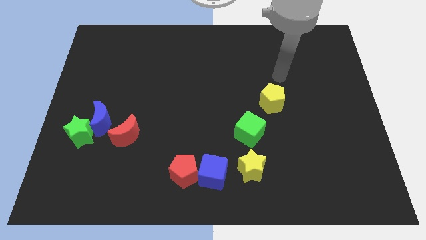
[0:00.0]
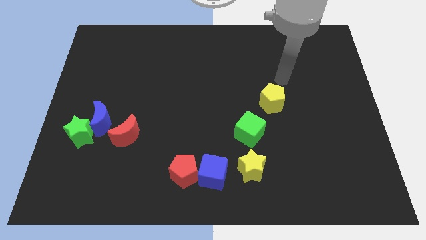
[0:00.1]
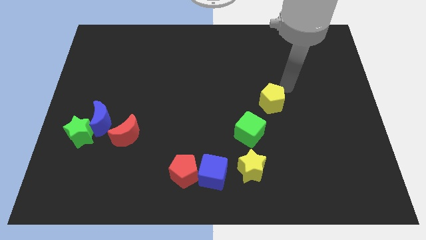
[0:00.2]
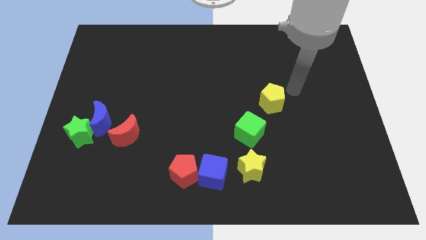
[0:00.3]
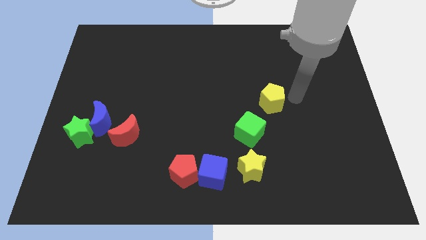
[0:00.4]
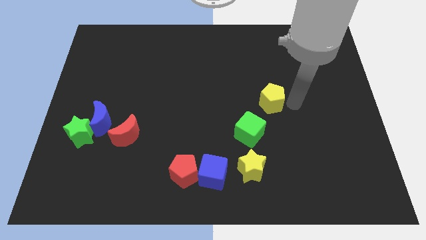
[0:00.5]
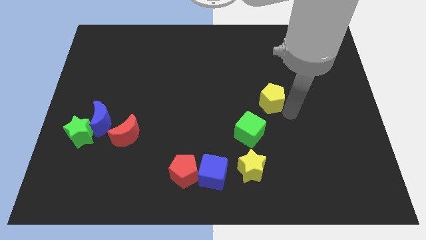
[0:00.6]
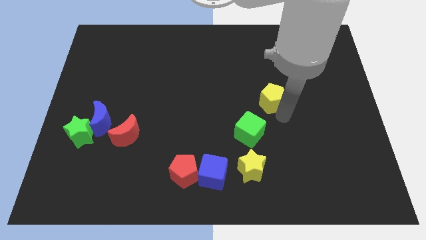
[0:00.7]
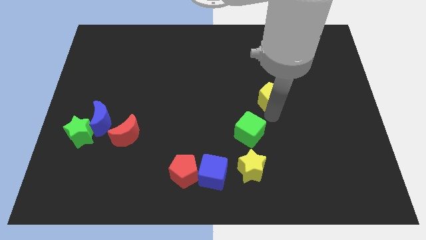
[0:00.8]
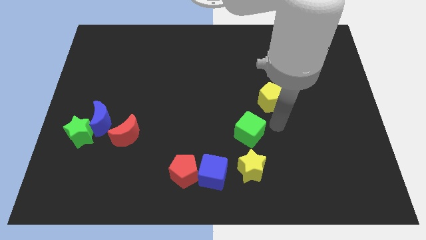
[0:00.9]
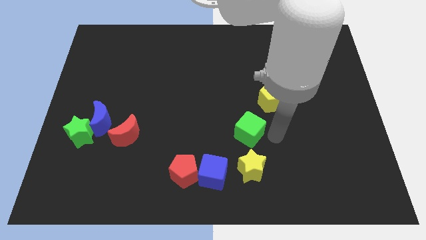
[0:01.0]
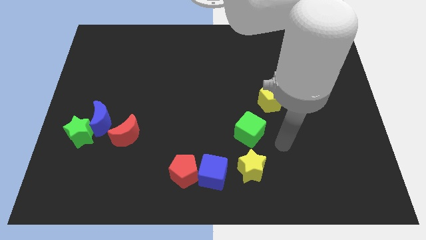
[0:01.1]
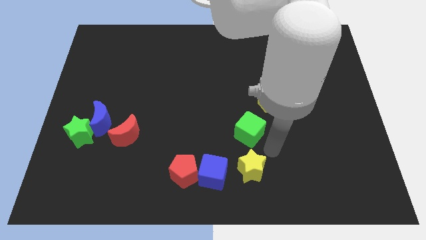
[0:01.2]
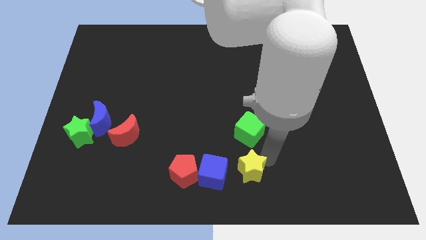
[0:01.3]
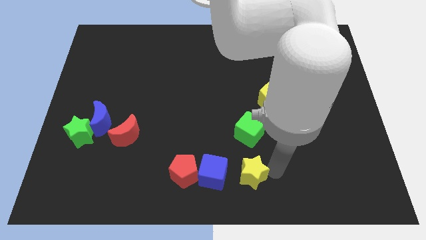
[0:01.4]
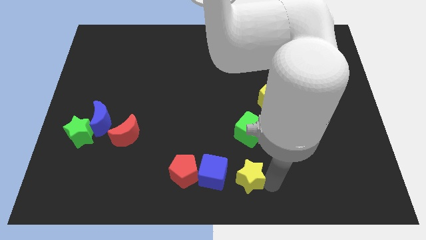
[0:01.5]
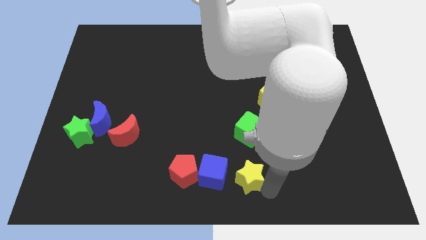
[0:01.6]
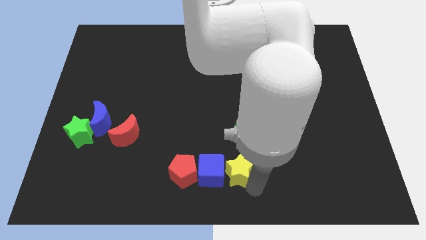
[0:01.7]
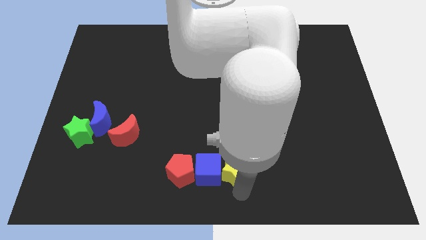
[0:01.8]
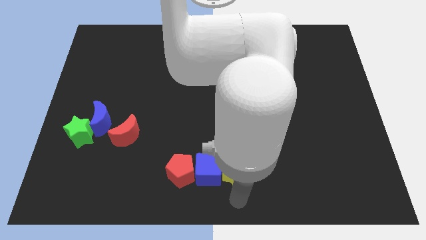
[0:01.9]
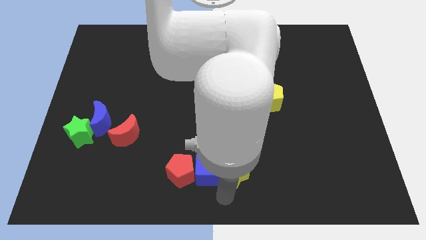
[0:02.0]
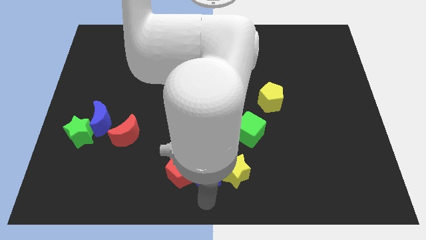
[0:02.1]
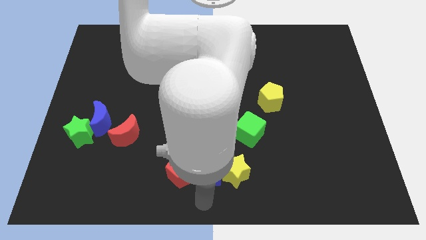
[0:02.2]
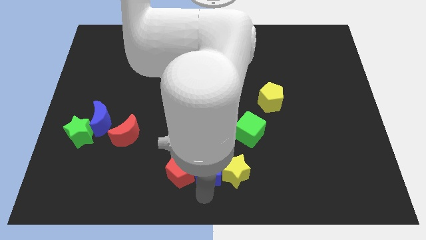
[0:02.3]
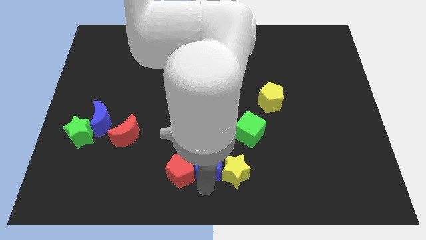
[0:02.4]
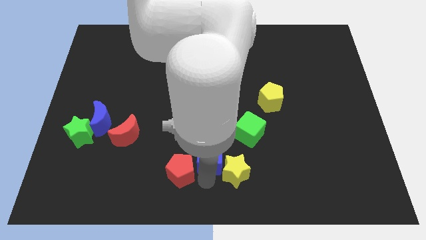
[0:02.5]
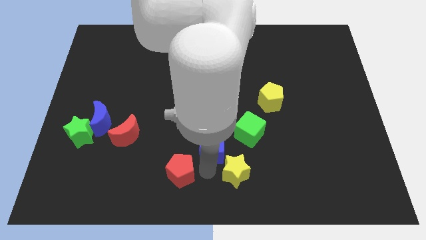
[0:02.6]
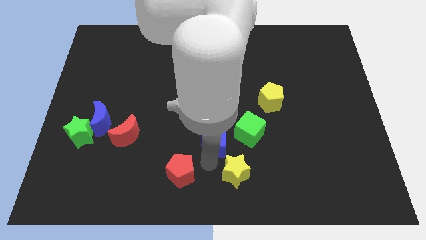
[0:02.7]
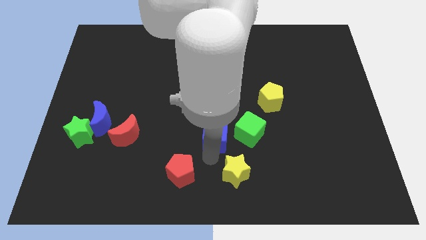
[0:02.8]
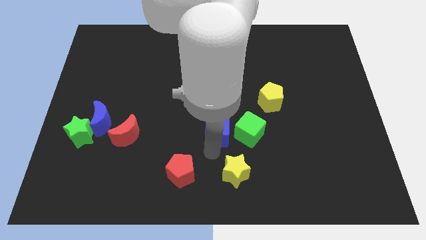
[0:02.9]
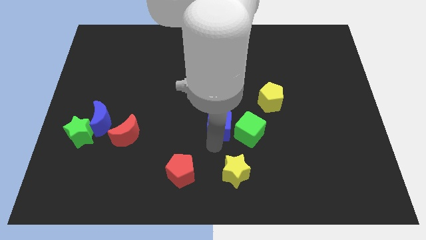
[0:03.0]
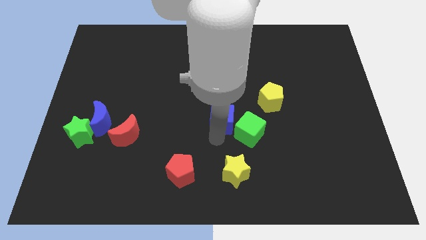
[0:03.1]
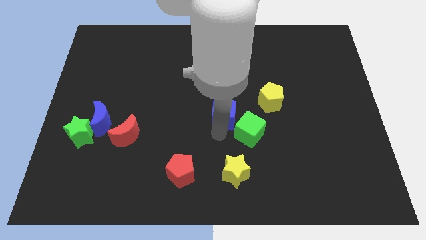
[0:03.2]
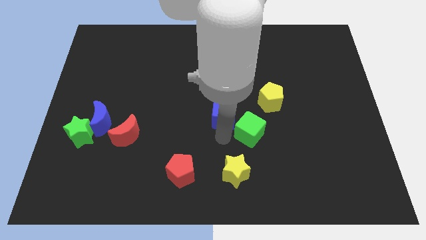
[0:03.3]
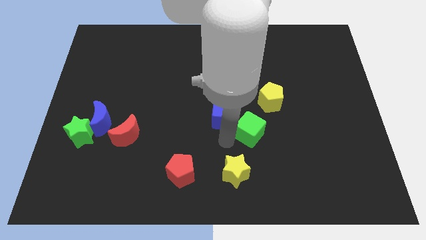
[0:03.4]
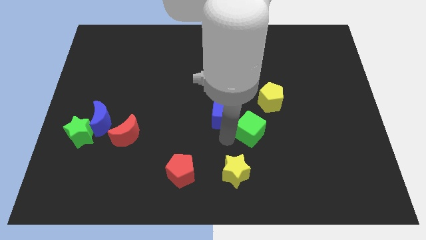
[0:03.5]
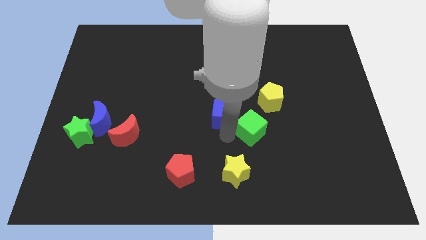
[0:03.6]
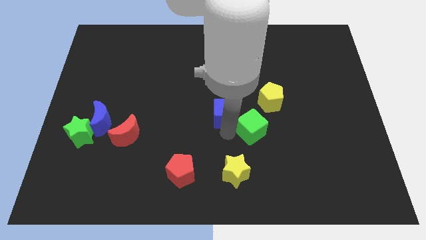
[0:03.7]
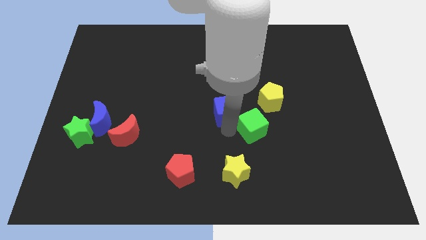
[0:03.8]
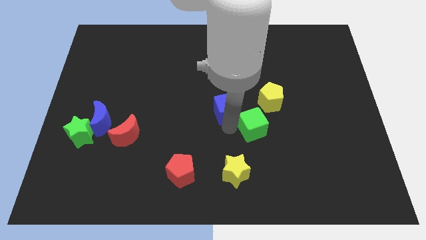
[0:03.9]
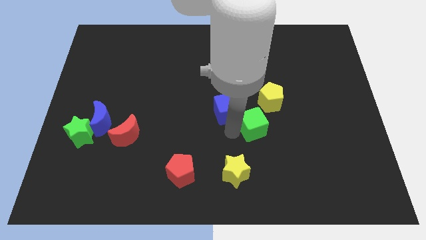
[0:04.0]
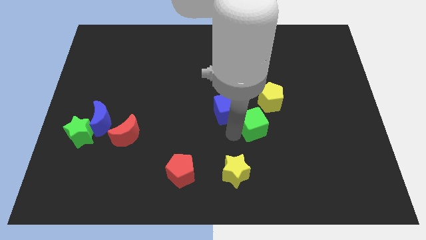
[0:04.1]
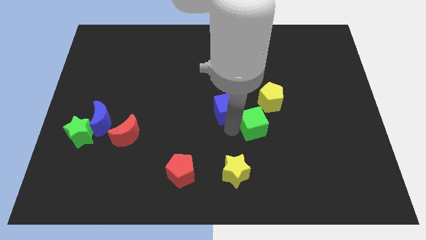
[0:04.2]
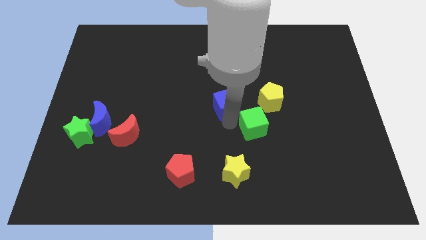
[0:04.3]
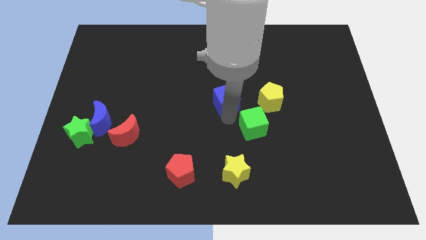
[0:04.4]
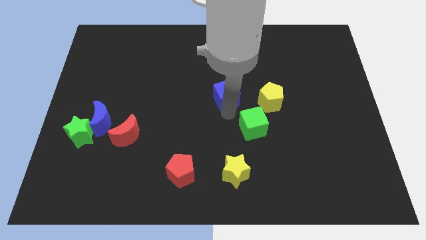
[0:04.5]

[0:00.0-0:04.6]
move the blue cube upwards

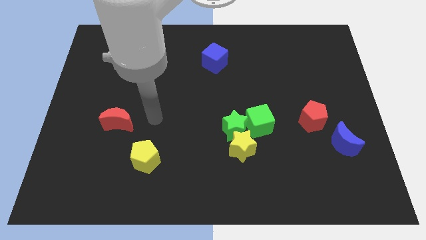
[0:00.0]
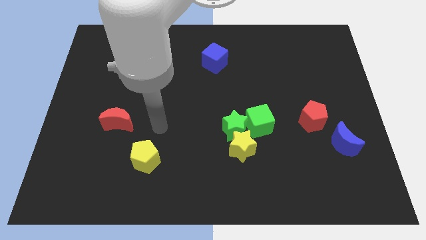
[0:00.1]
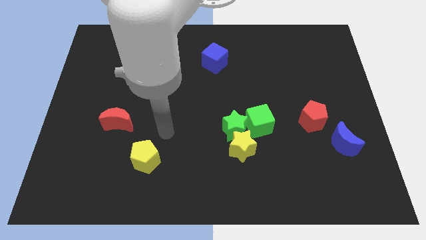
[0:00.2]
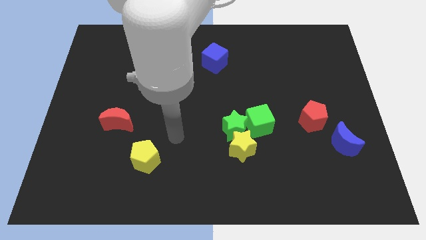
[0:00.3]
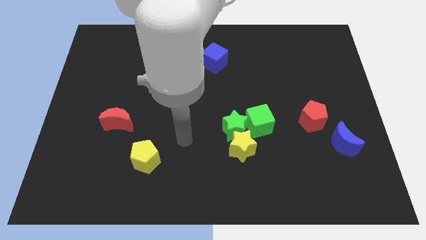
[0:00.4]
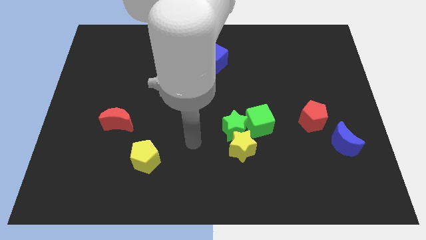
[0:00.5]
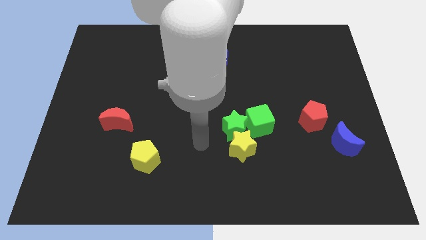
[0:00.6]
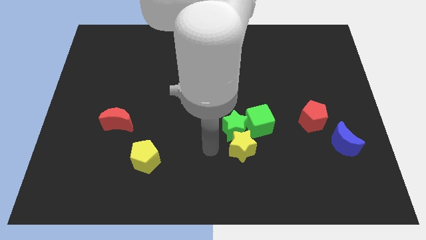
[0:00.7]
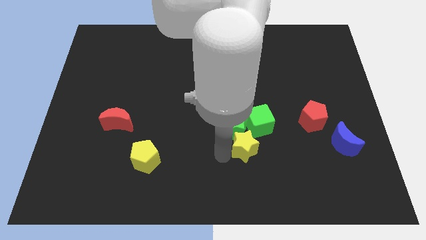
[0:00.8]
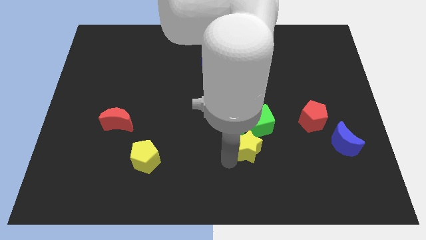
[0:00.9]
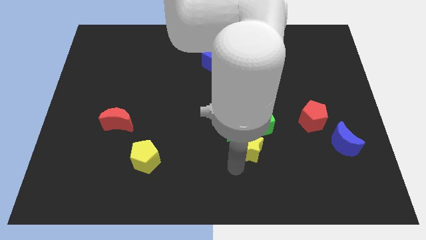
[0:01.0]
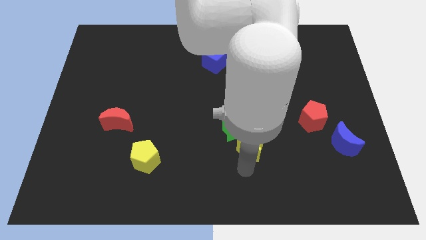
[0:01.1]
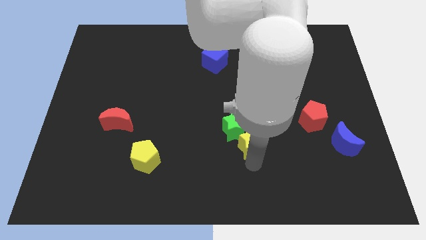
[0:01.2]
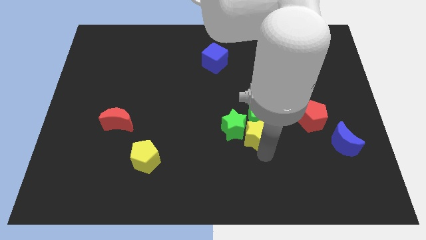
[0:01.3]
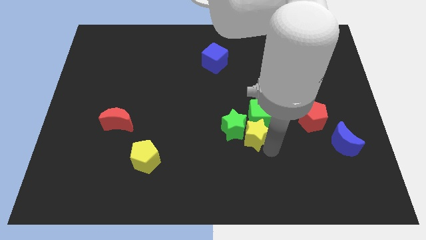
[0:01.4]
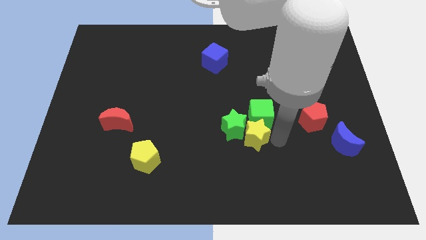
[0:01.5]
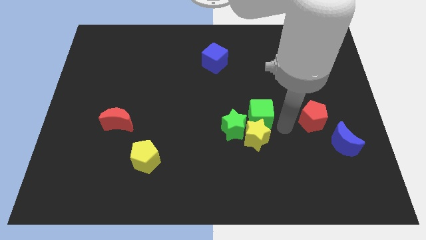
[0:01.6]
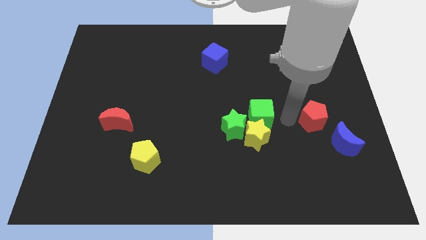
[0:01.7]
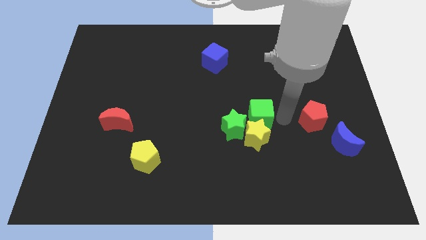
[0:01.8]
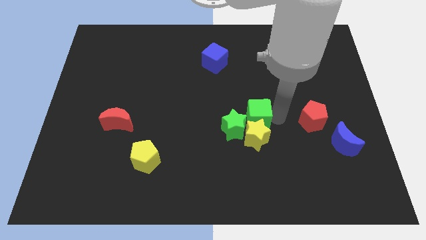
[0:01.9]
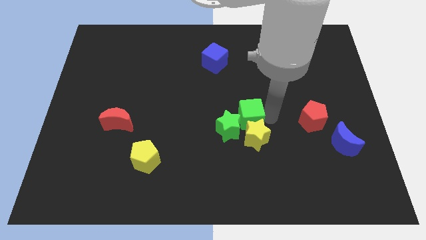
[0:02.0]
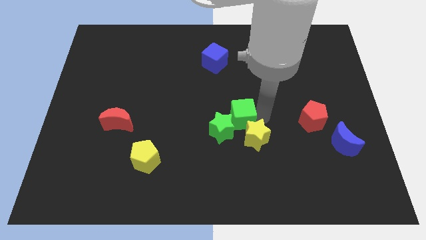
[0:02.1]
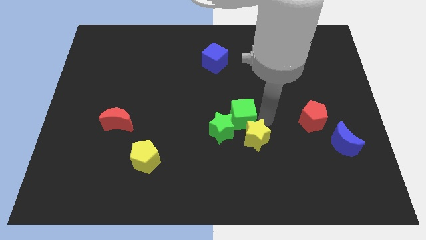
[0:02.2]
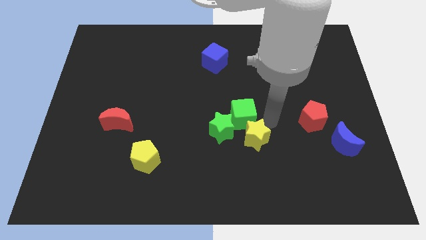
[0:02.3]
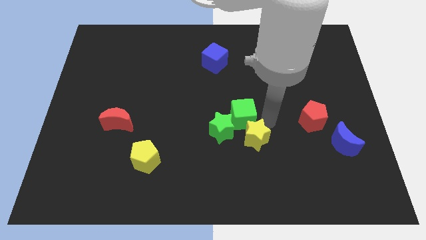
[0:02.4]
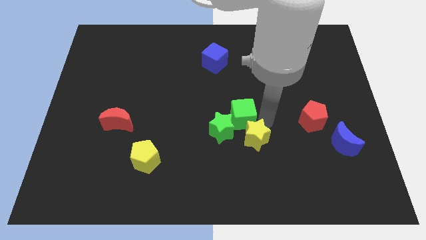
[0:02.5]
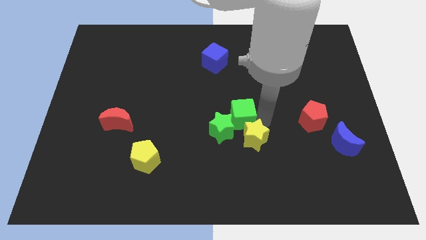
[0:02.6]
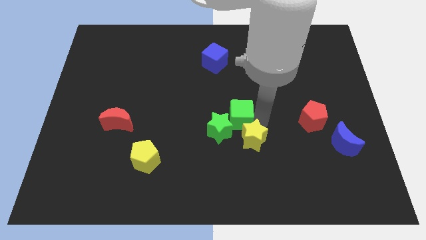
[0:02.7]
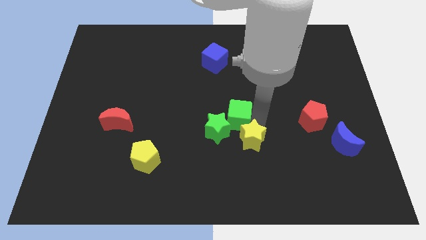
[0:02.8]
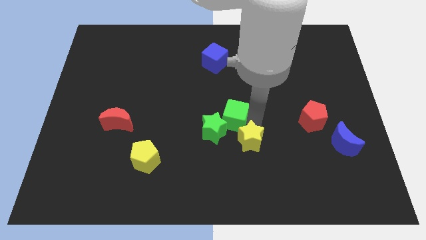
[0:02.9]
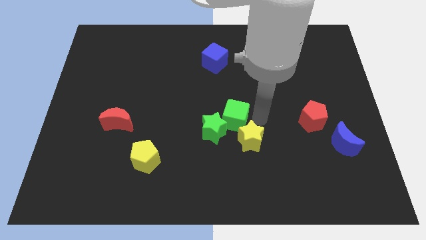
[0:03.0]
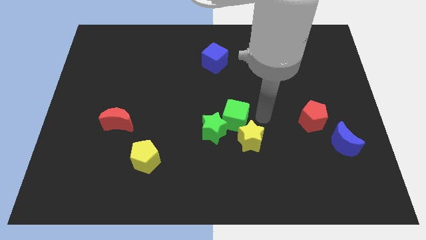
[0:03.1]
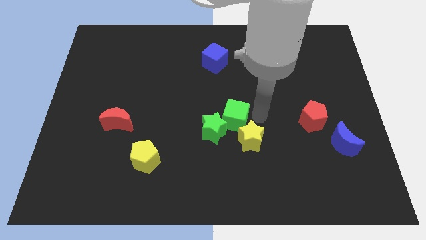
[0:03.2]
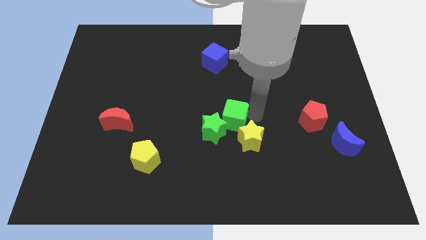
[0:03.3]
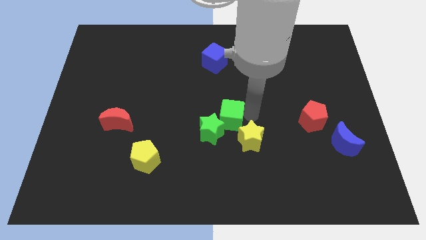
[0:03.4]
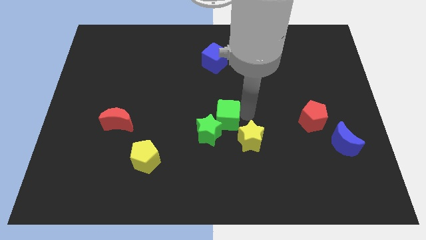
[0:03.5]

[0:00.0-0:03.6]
slightly slide the green cube left
